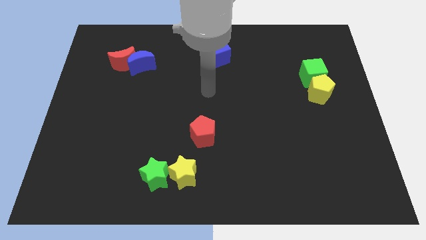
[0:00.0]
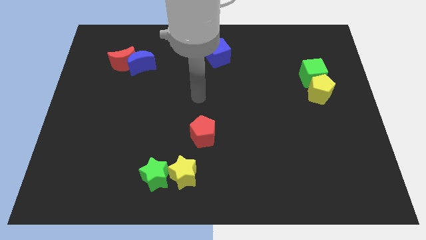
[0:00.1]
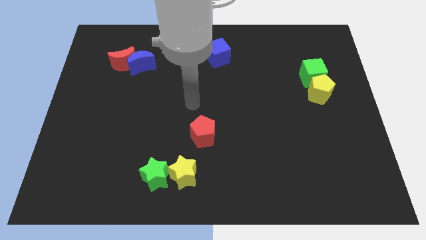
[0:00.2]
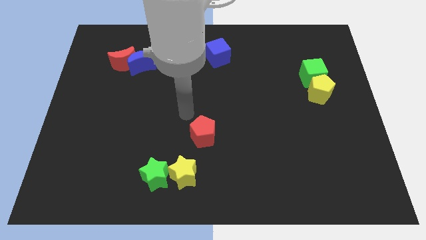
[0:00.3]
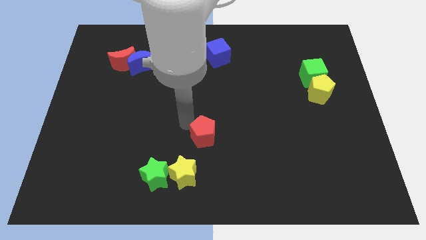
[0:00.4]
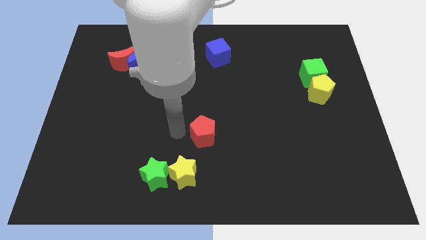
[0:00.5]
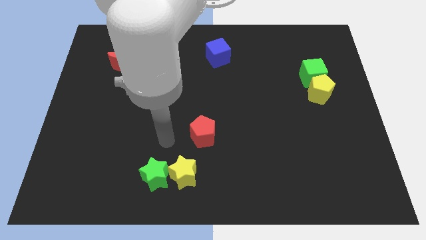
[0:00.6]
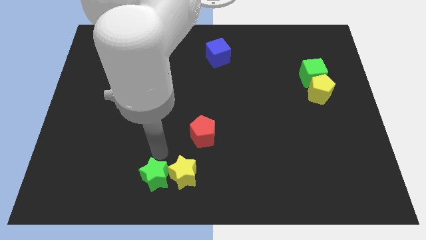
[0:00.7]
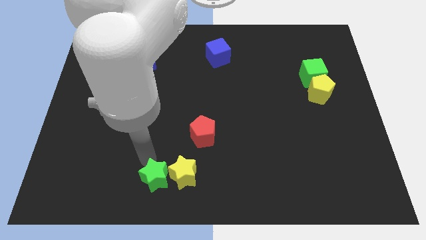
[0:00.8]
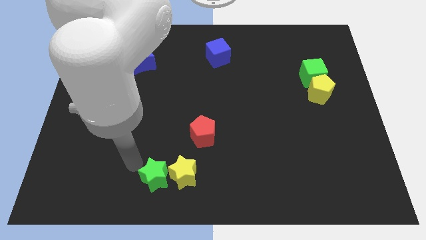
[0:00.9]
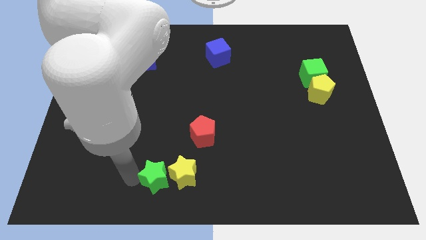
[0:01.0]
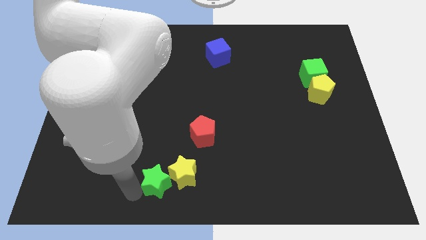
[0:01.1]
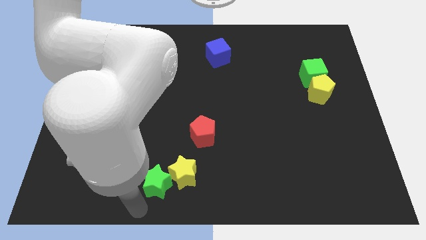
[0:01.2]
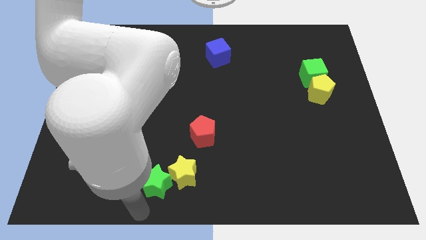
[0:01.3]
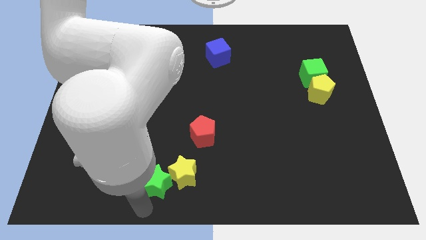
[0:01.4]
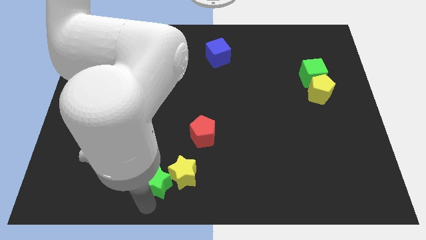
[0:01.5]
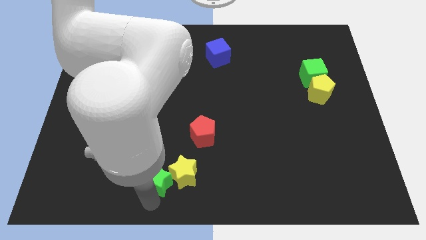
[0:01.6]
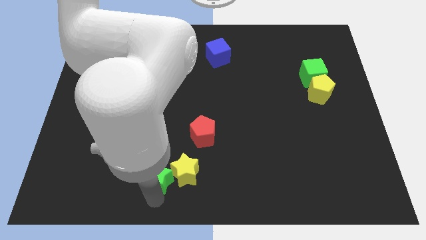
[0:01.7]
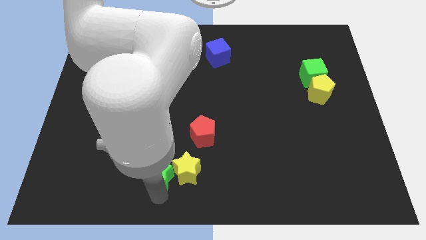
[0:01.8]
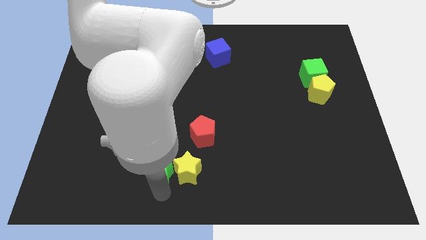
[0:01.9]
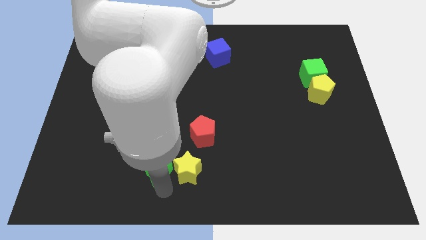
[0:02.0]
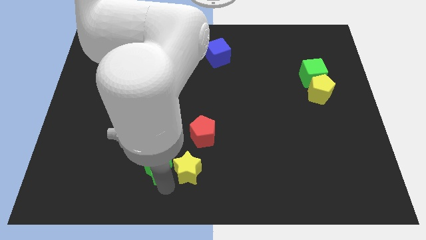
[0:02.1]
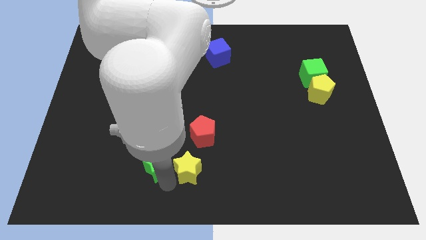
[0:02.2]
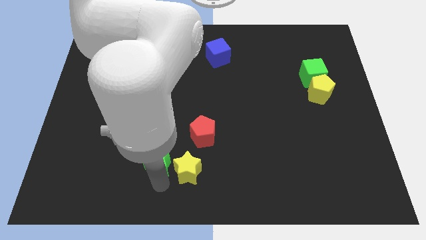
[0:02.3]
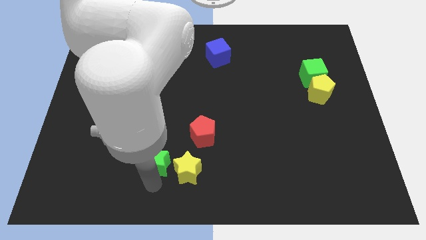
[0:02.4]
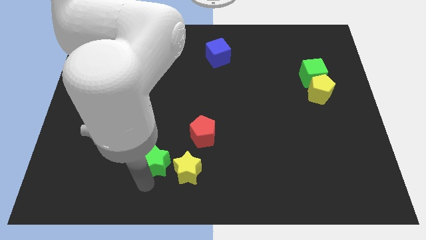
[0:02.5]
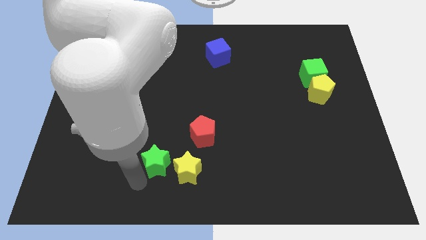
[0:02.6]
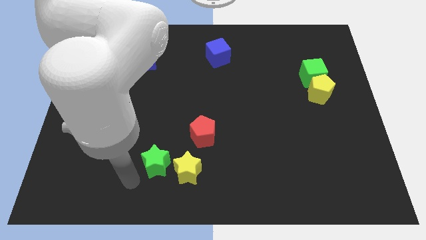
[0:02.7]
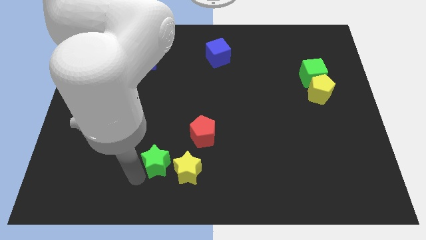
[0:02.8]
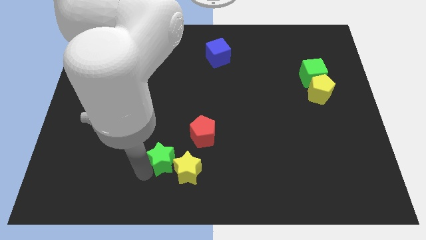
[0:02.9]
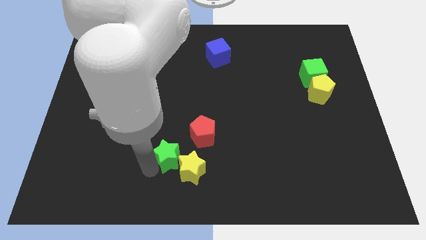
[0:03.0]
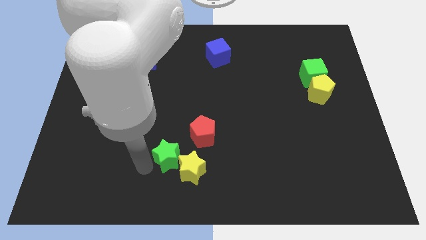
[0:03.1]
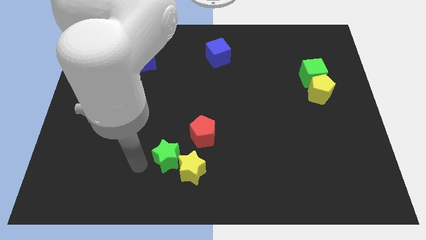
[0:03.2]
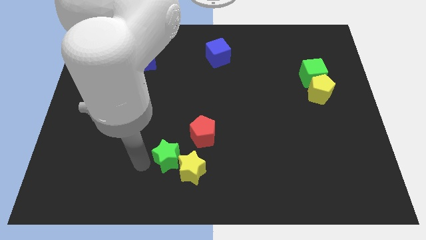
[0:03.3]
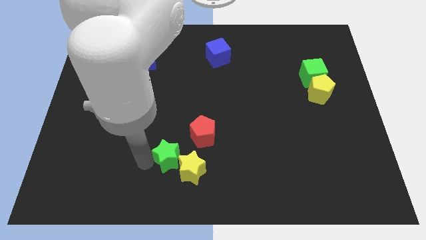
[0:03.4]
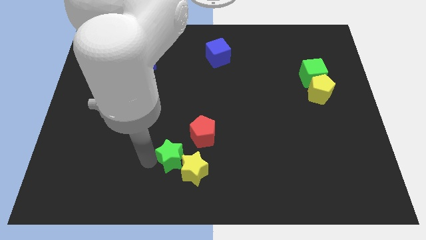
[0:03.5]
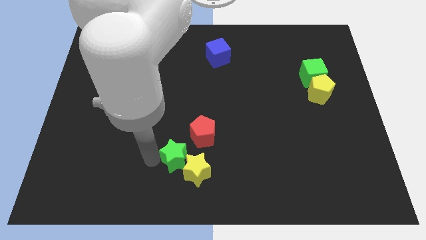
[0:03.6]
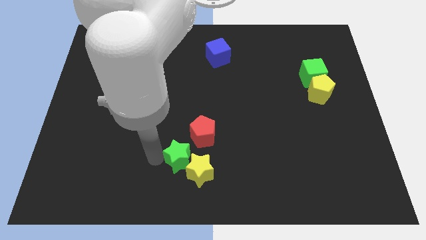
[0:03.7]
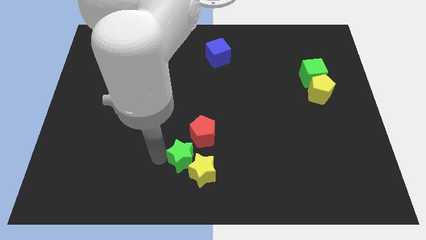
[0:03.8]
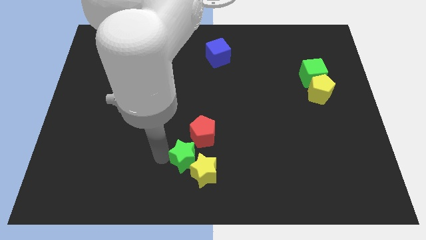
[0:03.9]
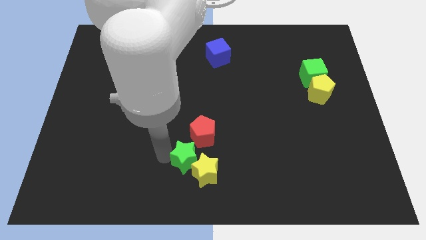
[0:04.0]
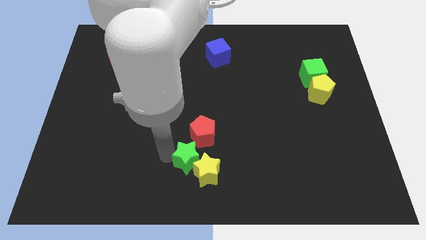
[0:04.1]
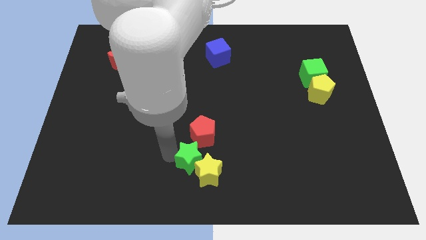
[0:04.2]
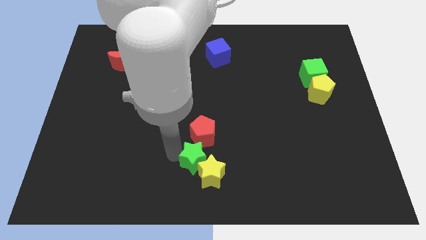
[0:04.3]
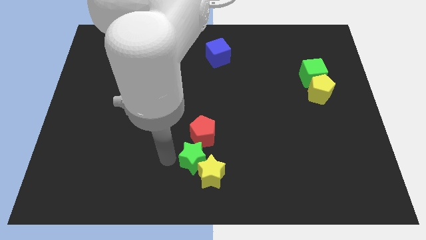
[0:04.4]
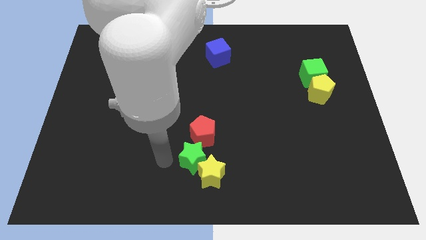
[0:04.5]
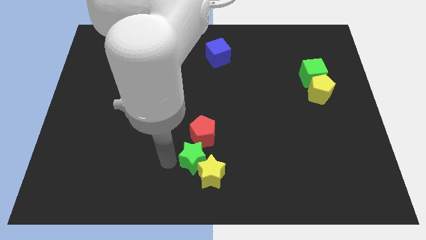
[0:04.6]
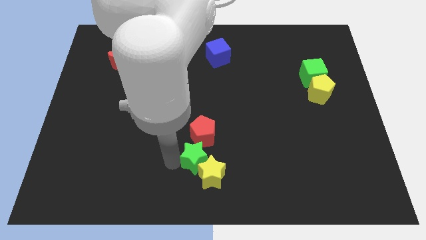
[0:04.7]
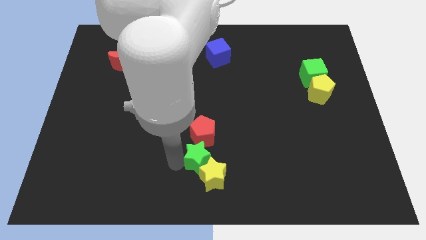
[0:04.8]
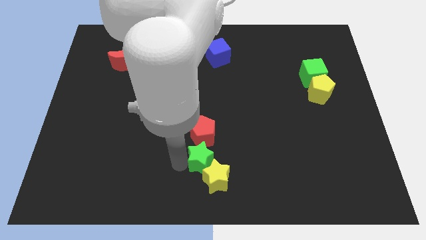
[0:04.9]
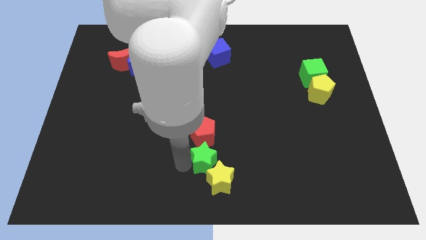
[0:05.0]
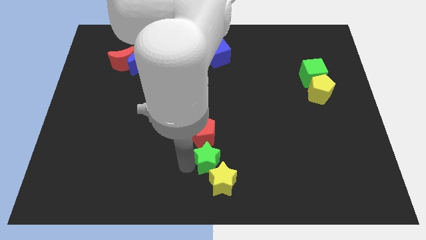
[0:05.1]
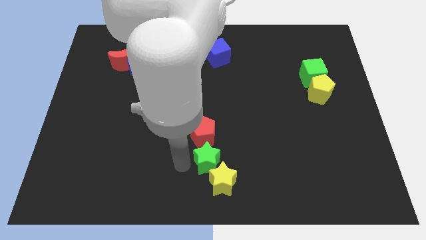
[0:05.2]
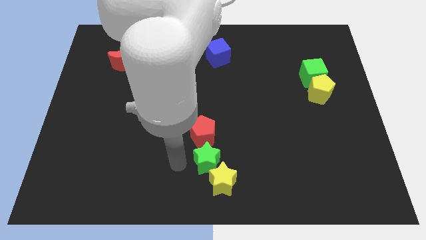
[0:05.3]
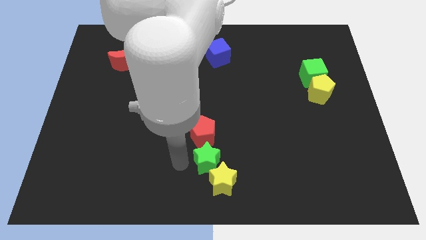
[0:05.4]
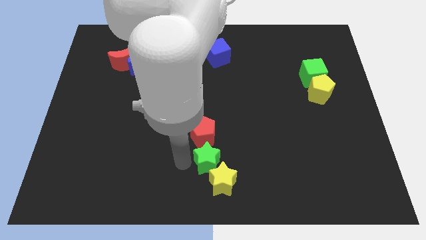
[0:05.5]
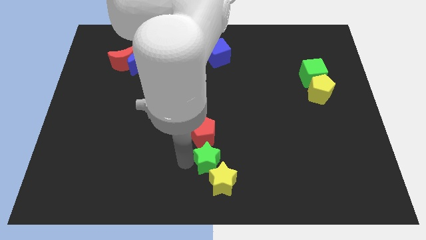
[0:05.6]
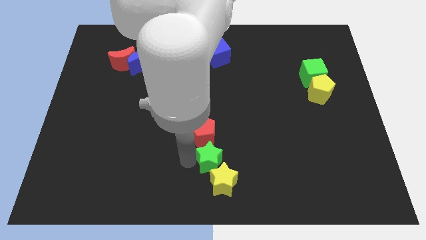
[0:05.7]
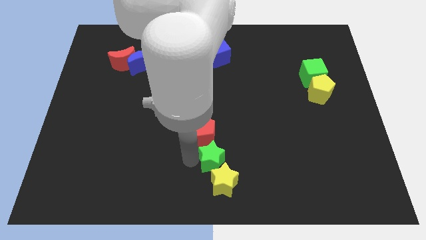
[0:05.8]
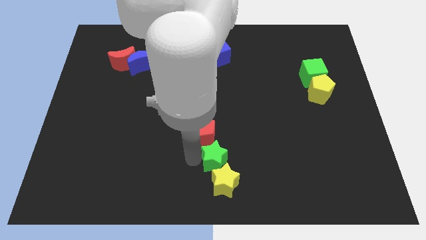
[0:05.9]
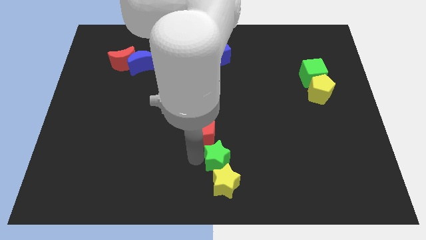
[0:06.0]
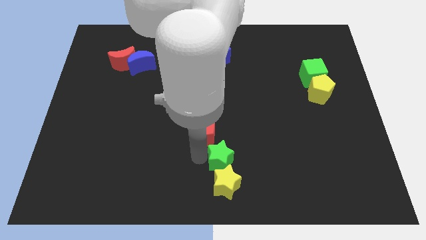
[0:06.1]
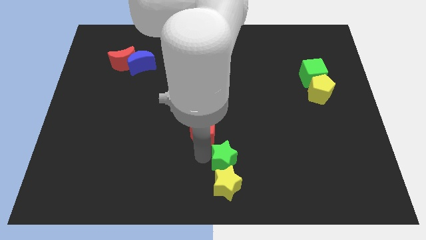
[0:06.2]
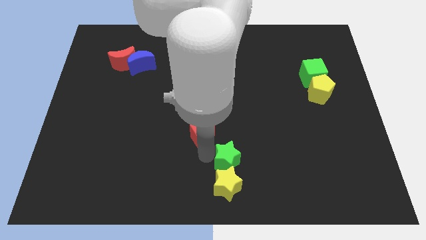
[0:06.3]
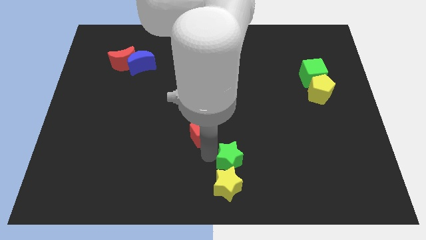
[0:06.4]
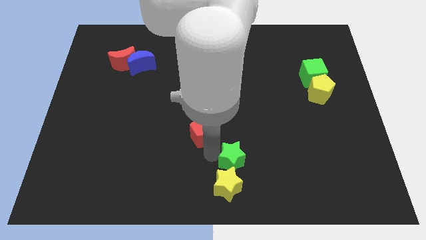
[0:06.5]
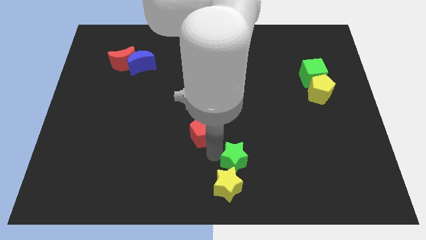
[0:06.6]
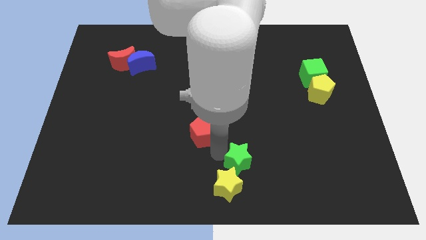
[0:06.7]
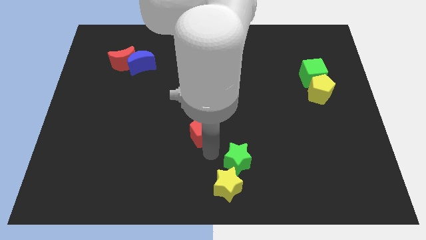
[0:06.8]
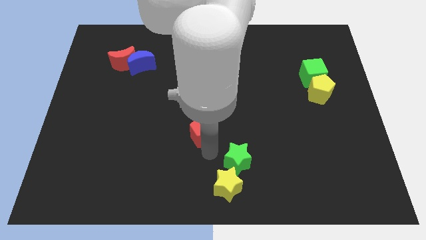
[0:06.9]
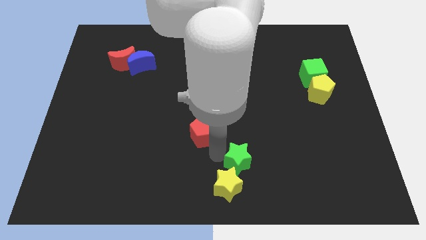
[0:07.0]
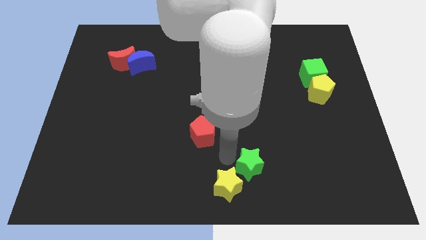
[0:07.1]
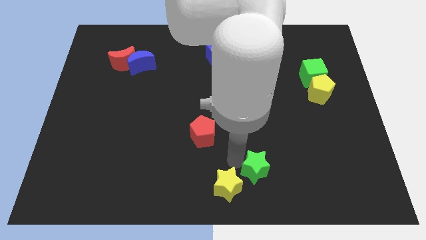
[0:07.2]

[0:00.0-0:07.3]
slide the green star right

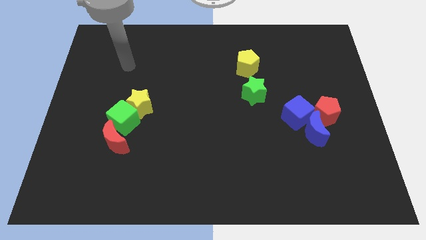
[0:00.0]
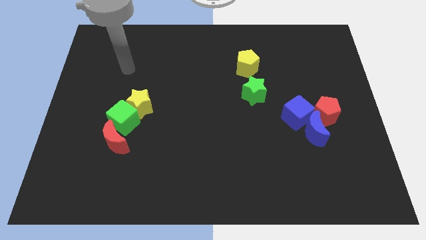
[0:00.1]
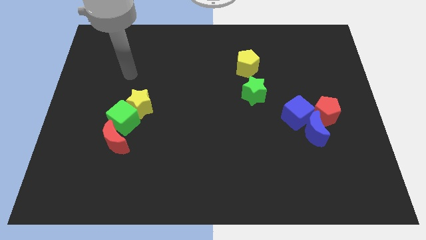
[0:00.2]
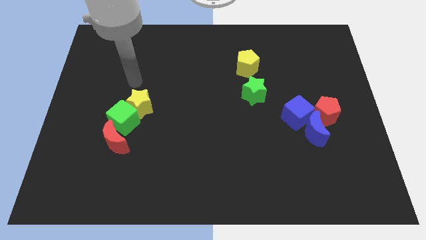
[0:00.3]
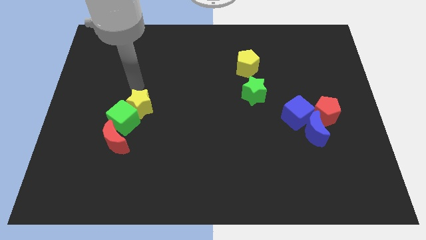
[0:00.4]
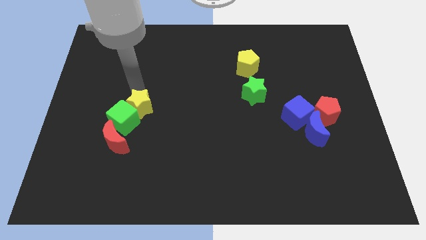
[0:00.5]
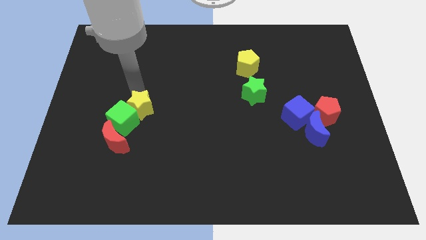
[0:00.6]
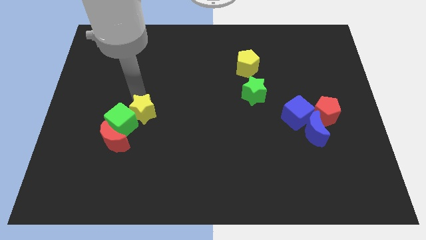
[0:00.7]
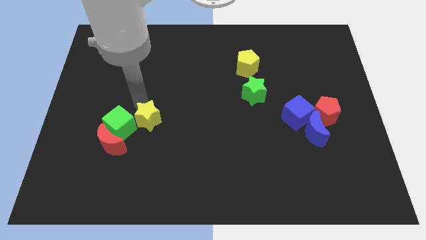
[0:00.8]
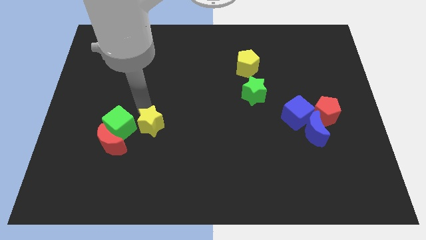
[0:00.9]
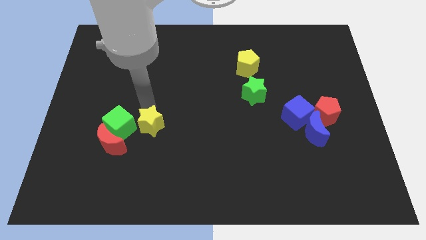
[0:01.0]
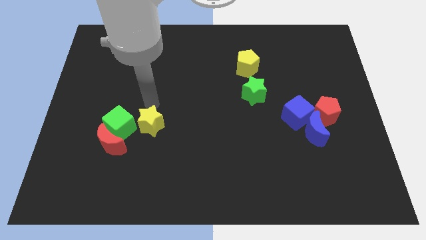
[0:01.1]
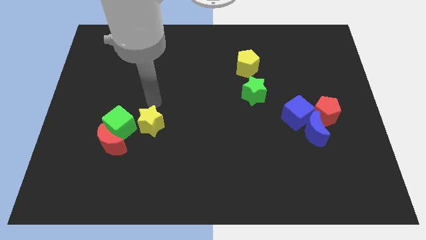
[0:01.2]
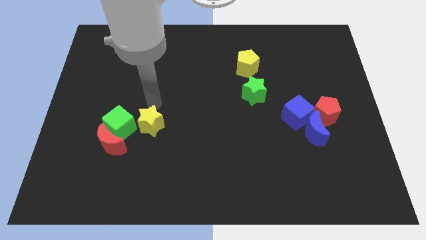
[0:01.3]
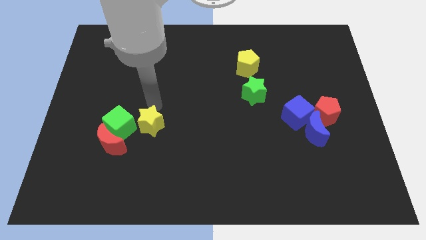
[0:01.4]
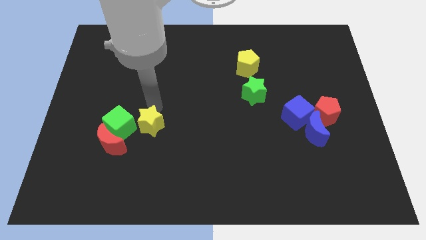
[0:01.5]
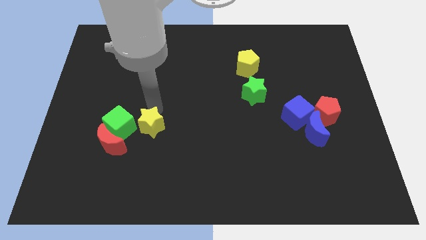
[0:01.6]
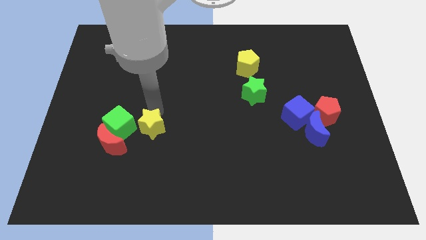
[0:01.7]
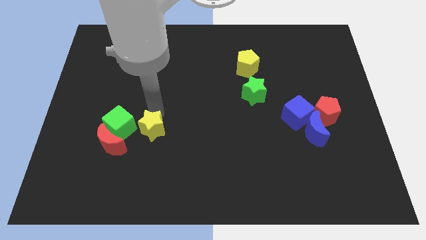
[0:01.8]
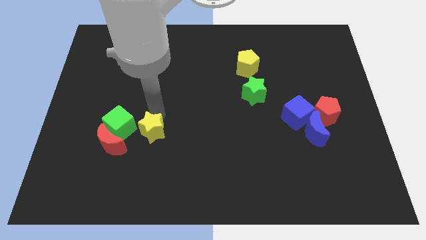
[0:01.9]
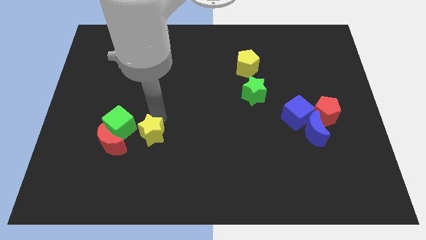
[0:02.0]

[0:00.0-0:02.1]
slide the yellow star downwards somewhat
